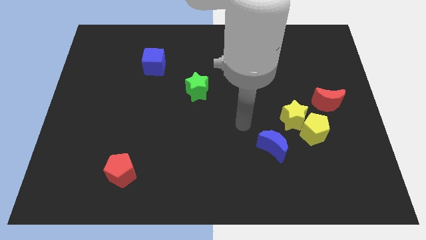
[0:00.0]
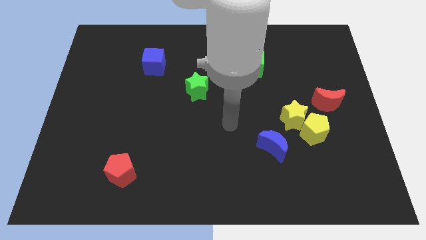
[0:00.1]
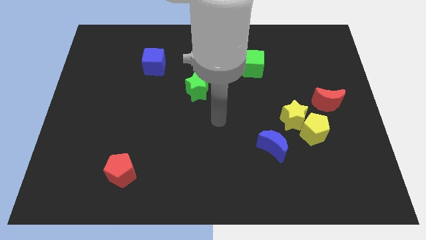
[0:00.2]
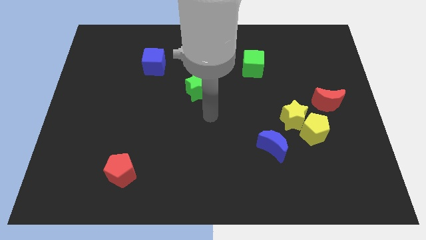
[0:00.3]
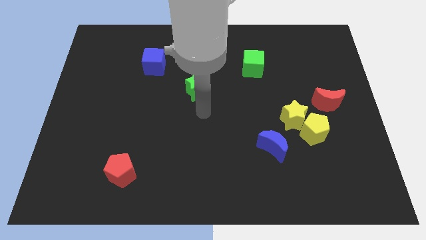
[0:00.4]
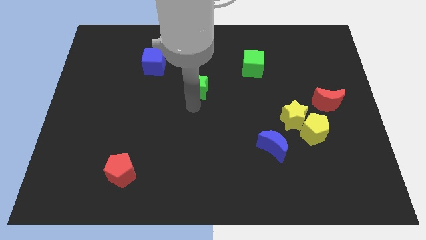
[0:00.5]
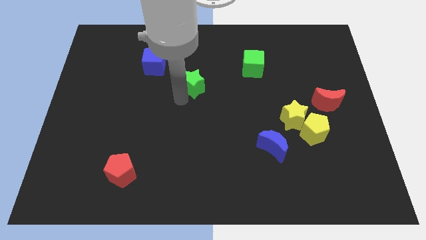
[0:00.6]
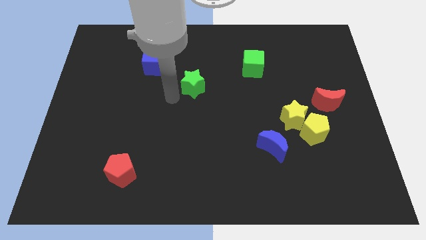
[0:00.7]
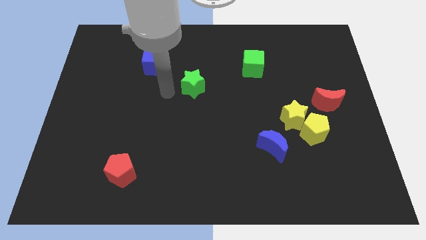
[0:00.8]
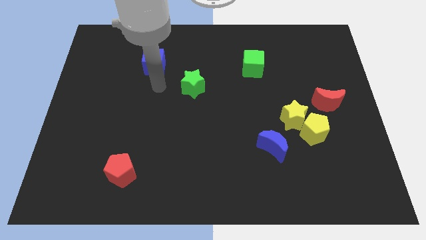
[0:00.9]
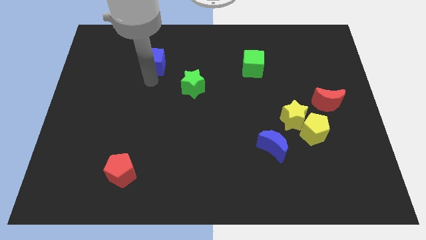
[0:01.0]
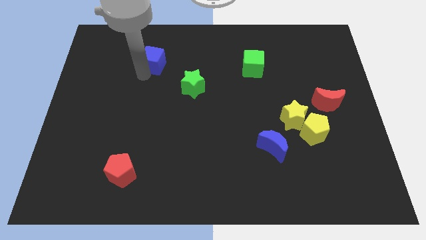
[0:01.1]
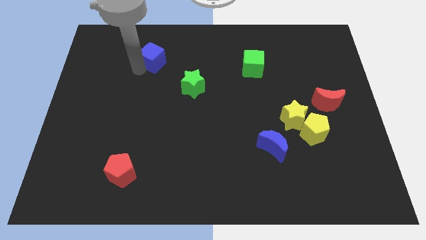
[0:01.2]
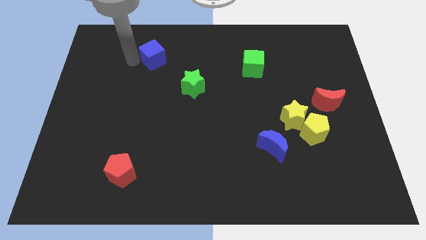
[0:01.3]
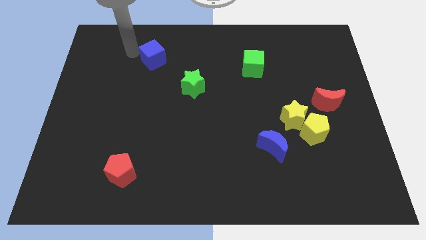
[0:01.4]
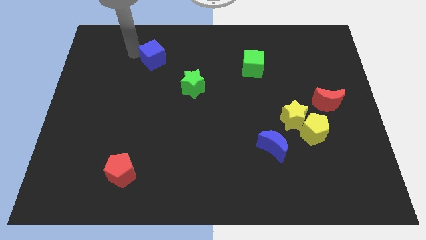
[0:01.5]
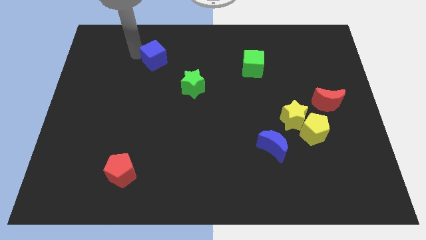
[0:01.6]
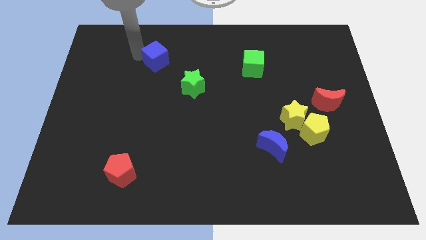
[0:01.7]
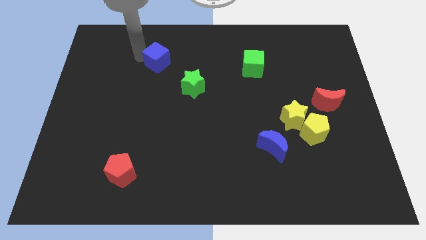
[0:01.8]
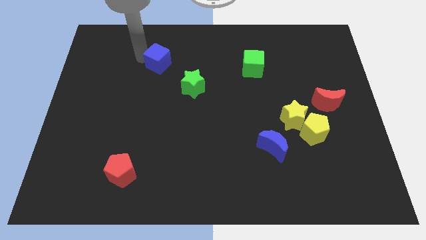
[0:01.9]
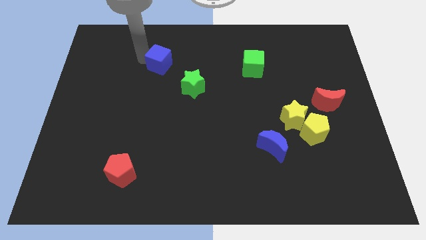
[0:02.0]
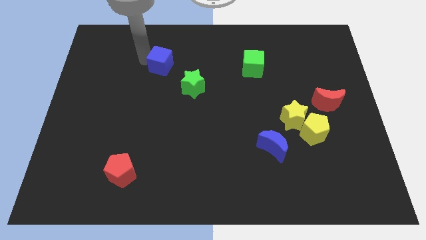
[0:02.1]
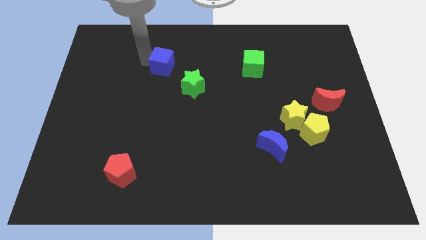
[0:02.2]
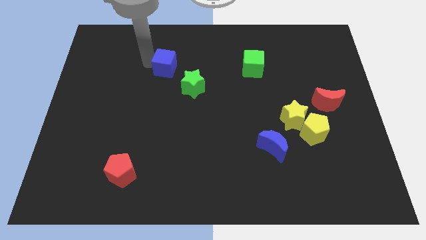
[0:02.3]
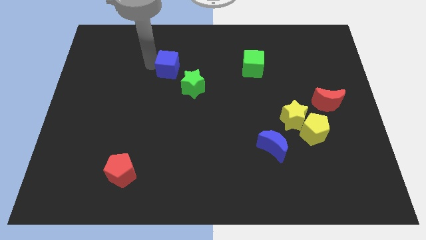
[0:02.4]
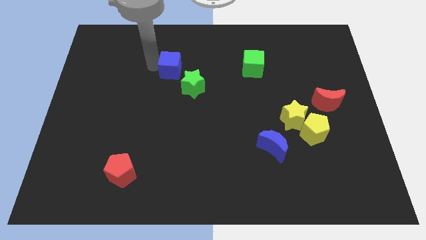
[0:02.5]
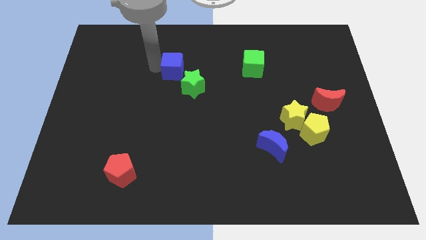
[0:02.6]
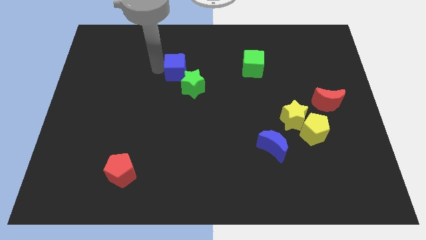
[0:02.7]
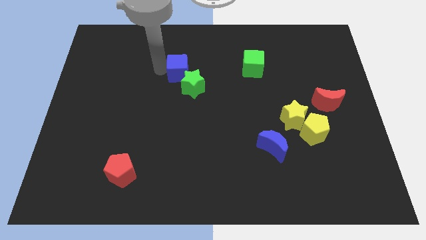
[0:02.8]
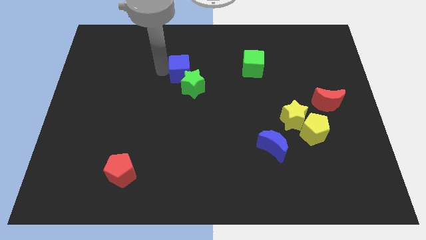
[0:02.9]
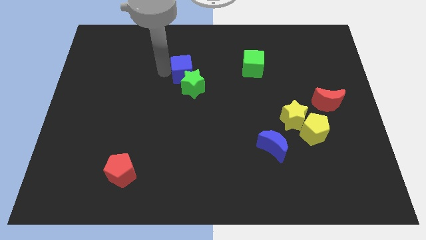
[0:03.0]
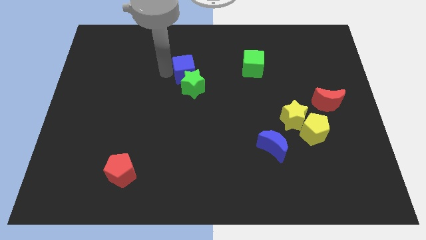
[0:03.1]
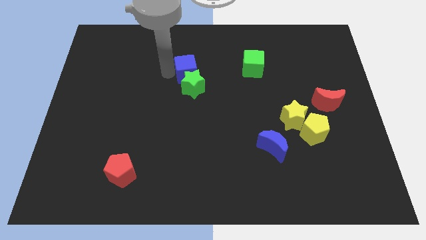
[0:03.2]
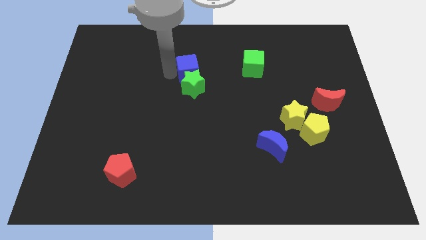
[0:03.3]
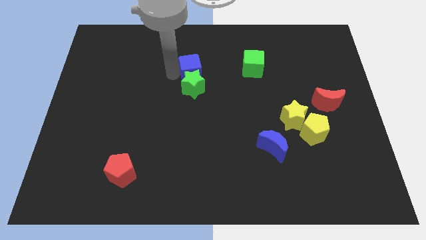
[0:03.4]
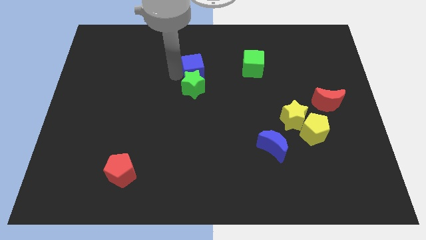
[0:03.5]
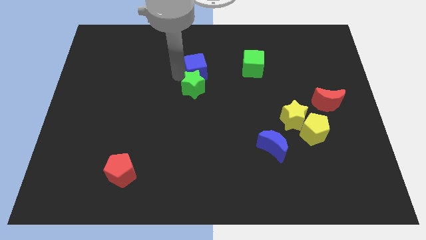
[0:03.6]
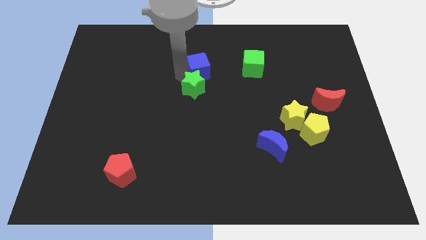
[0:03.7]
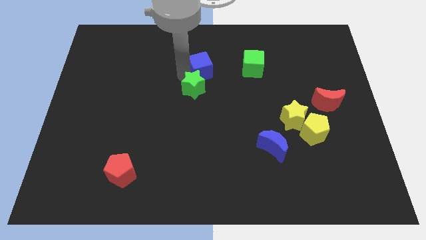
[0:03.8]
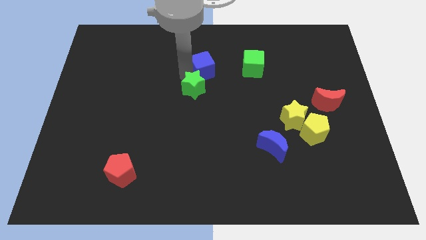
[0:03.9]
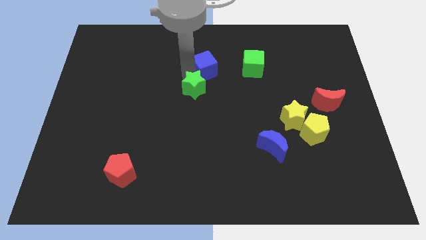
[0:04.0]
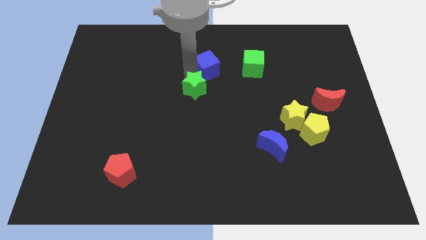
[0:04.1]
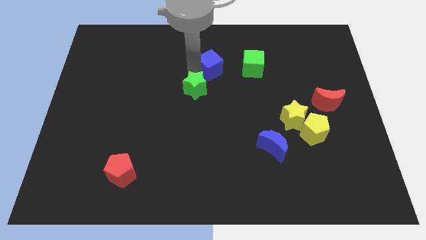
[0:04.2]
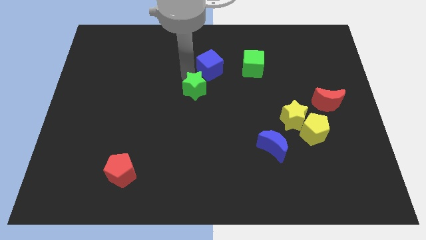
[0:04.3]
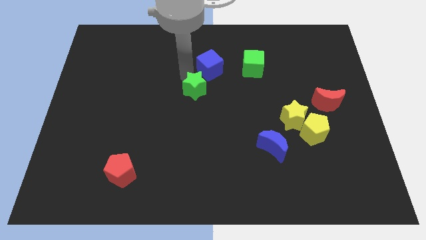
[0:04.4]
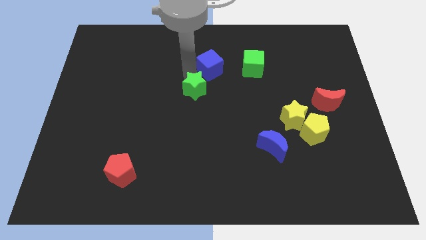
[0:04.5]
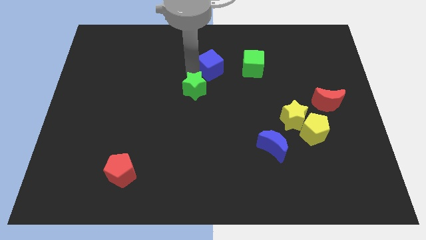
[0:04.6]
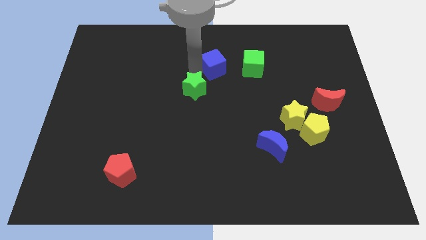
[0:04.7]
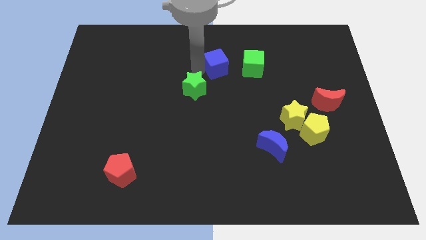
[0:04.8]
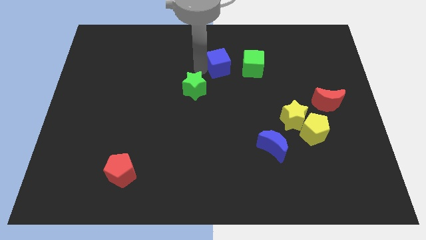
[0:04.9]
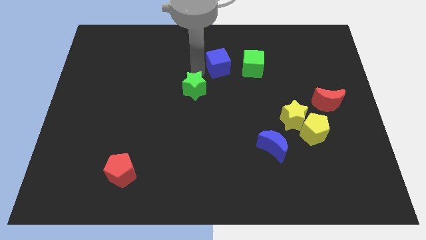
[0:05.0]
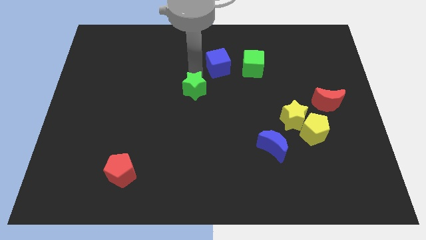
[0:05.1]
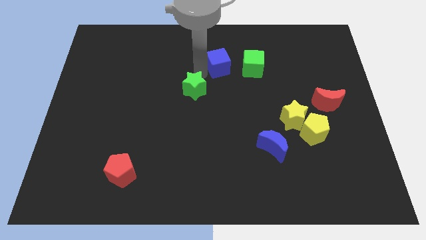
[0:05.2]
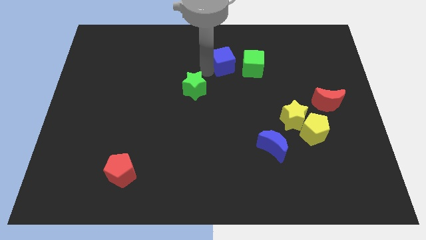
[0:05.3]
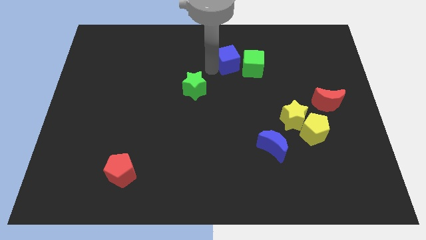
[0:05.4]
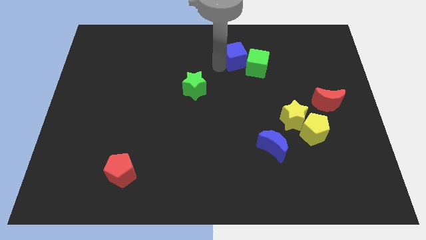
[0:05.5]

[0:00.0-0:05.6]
move the blue cube to the right

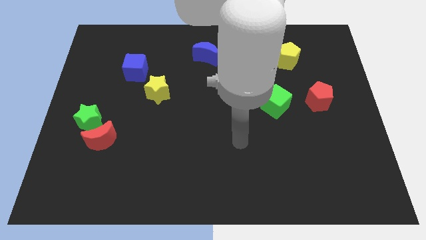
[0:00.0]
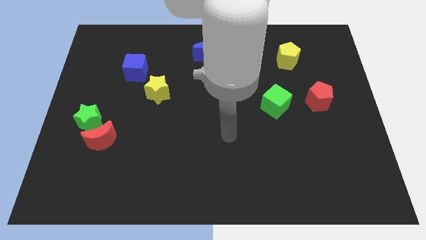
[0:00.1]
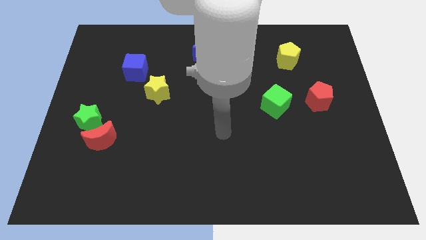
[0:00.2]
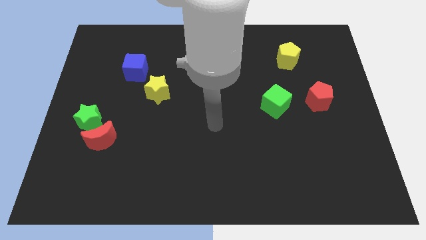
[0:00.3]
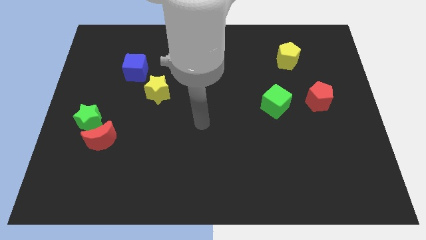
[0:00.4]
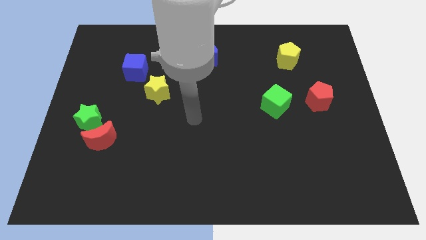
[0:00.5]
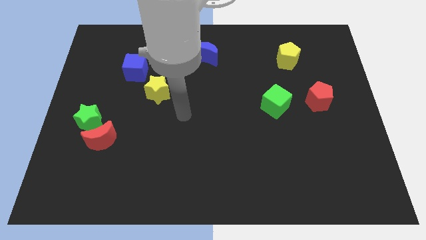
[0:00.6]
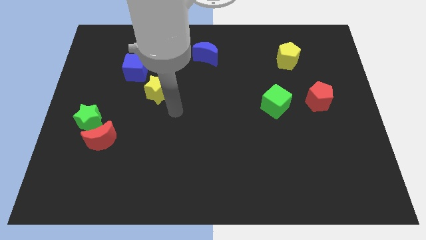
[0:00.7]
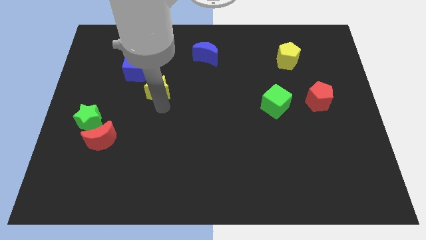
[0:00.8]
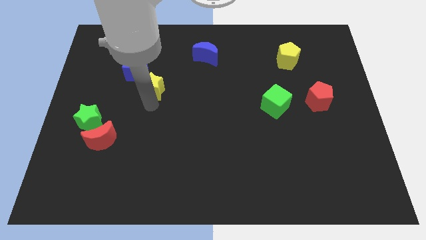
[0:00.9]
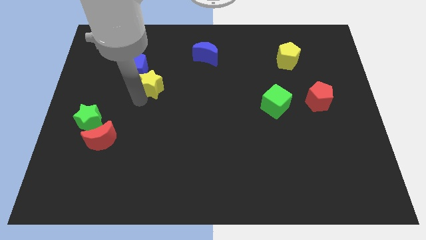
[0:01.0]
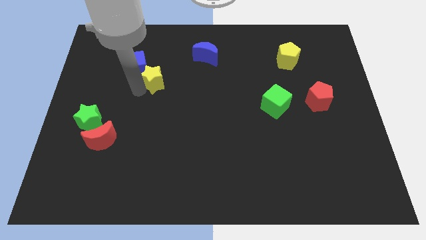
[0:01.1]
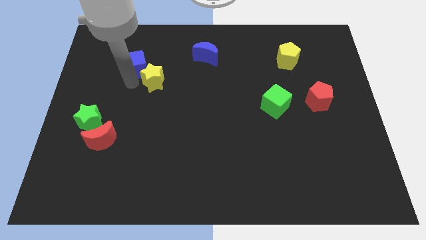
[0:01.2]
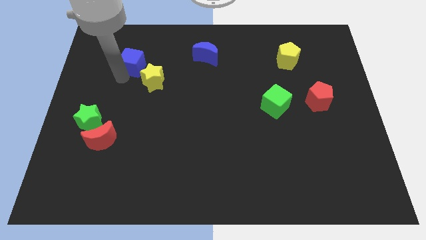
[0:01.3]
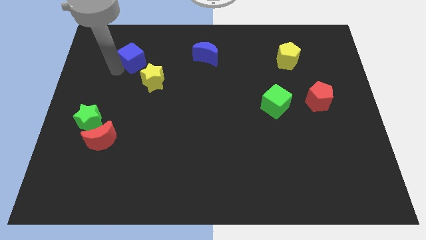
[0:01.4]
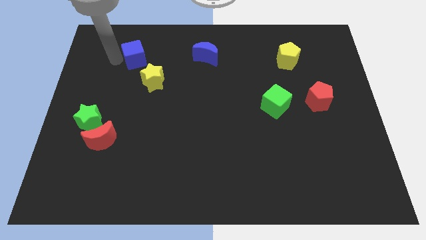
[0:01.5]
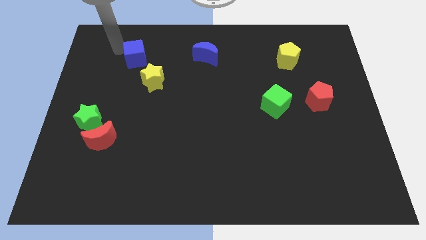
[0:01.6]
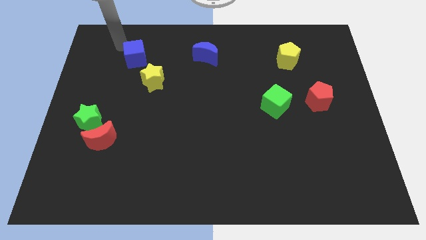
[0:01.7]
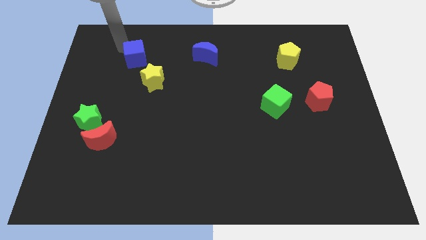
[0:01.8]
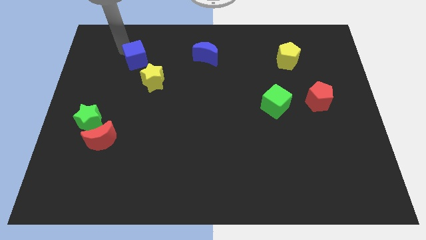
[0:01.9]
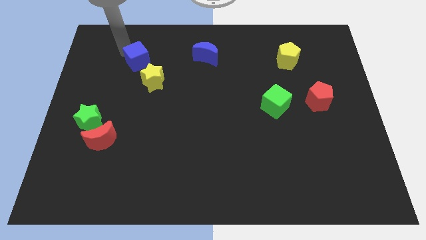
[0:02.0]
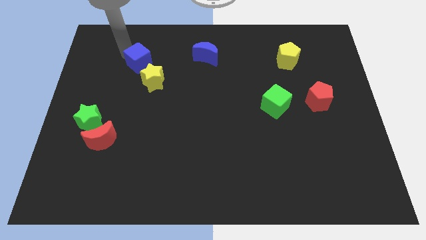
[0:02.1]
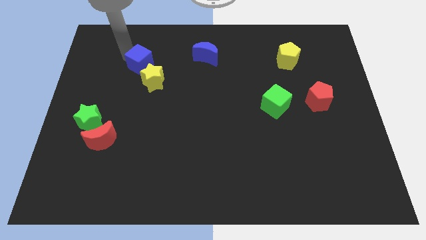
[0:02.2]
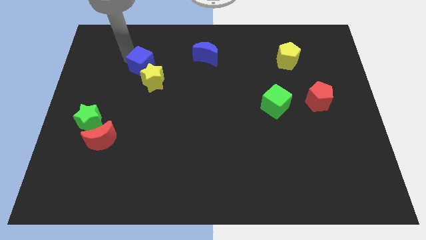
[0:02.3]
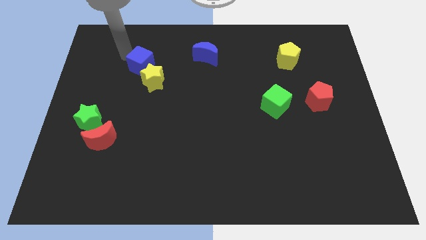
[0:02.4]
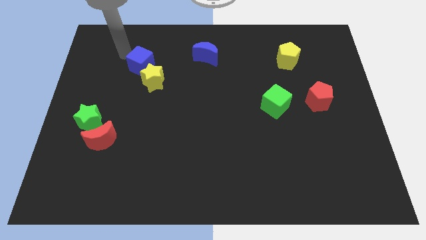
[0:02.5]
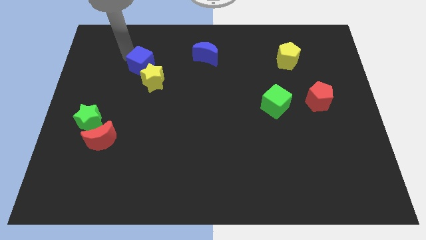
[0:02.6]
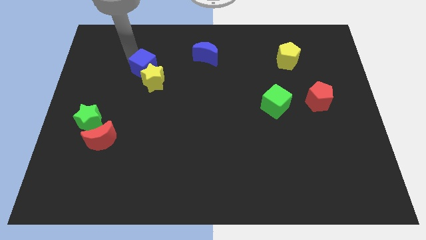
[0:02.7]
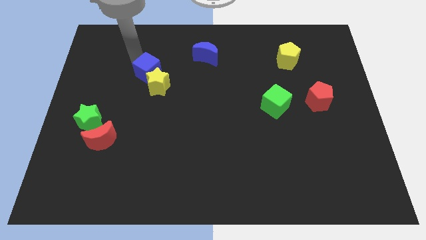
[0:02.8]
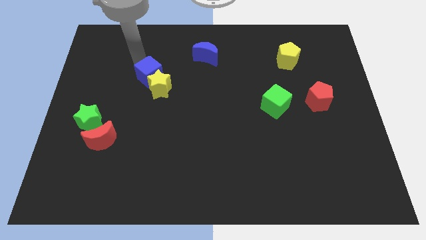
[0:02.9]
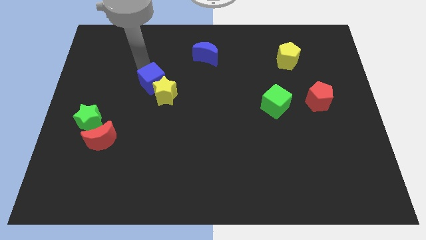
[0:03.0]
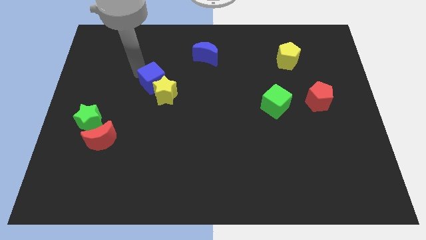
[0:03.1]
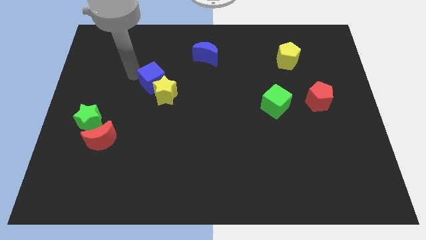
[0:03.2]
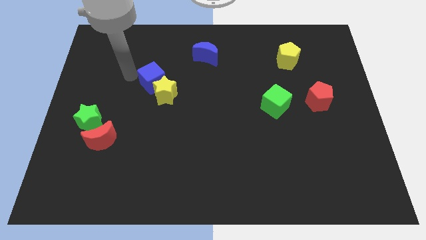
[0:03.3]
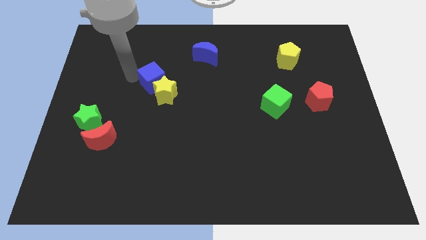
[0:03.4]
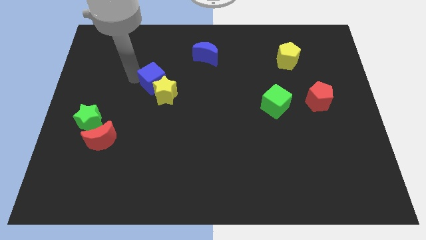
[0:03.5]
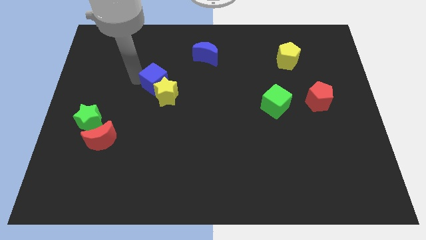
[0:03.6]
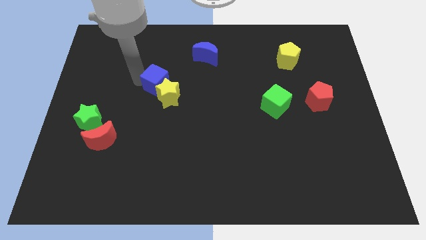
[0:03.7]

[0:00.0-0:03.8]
slightly move the blue cube diagonally down and to the right
